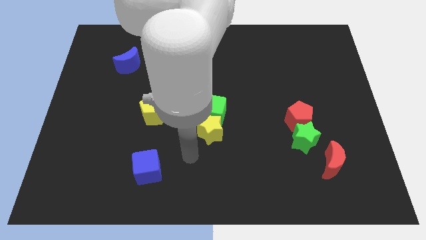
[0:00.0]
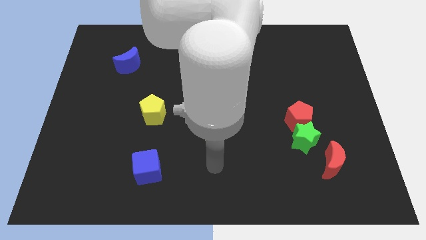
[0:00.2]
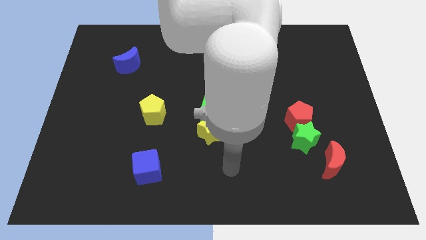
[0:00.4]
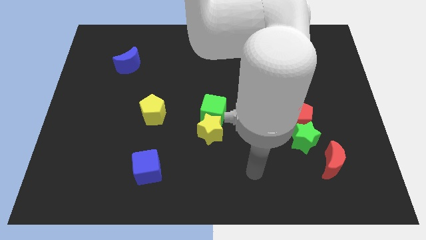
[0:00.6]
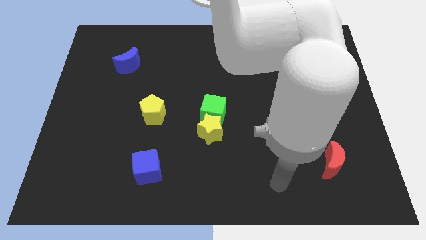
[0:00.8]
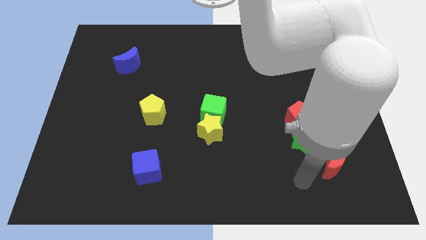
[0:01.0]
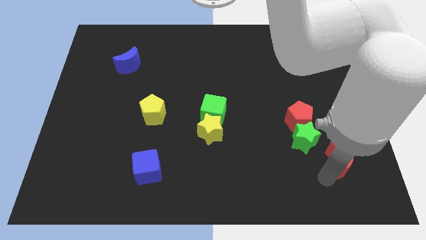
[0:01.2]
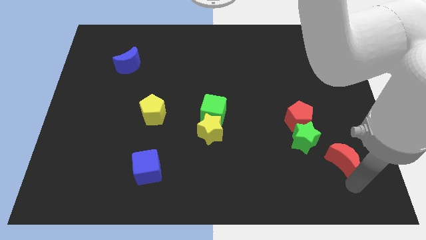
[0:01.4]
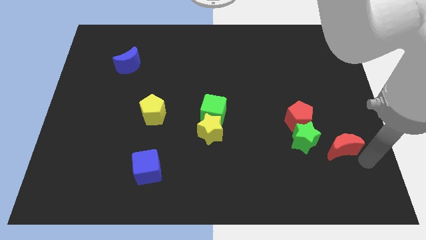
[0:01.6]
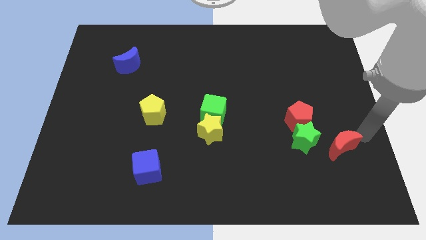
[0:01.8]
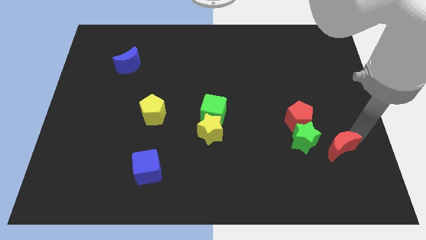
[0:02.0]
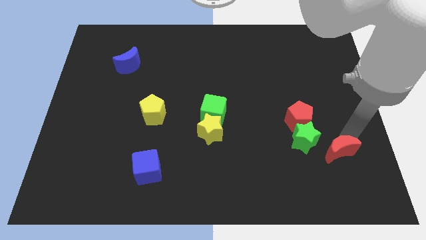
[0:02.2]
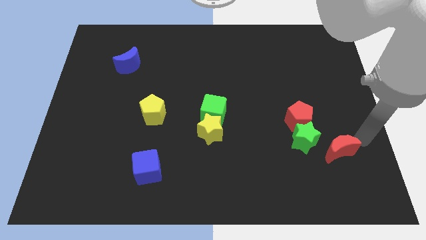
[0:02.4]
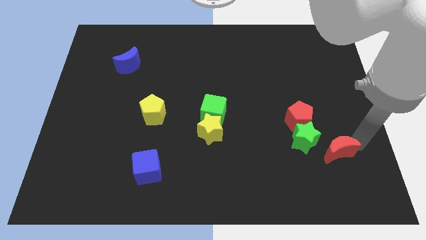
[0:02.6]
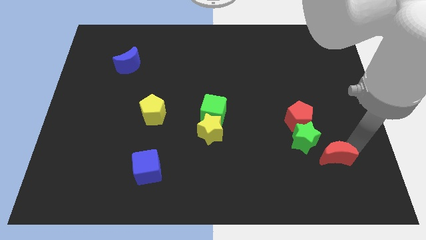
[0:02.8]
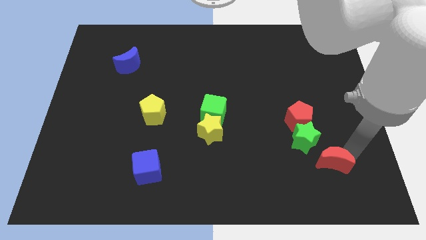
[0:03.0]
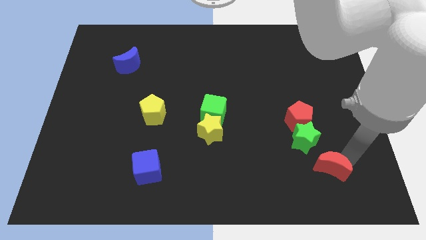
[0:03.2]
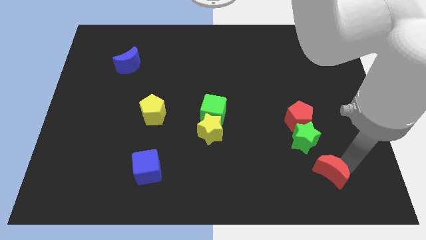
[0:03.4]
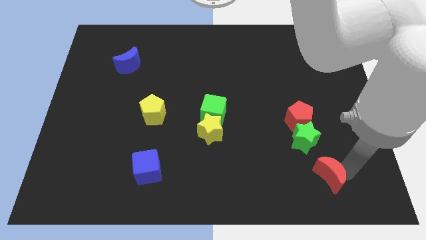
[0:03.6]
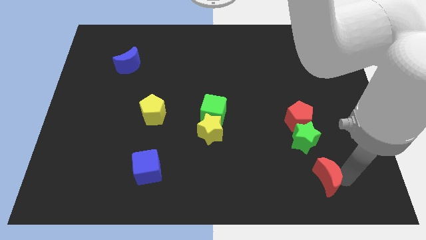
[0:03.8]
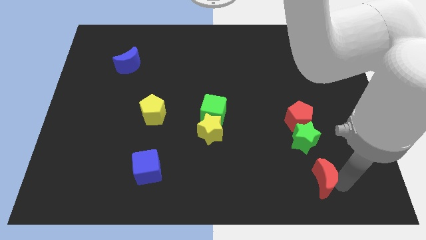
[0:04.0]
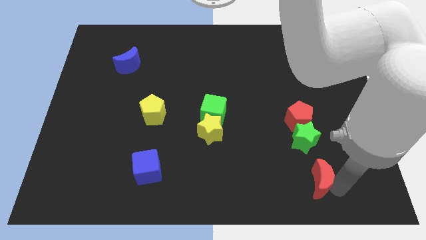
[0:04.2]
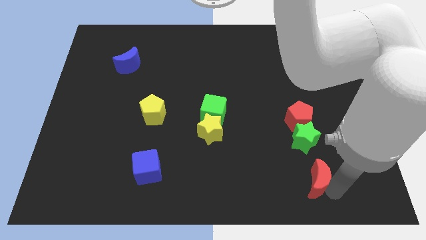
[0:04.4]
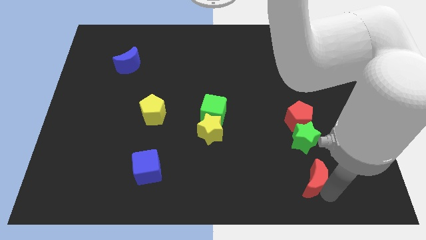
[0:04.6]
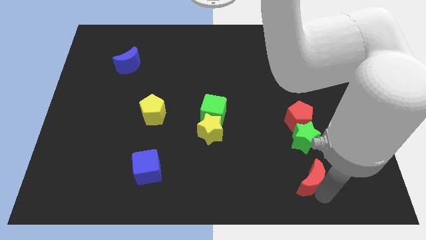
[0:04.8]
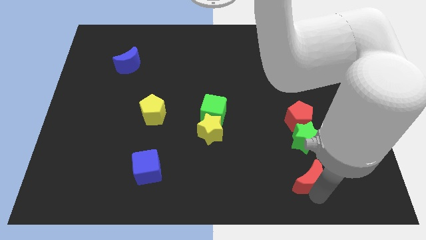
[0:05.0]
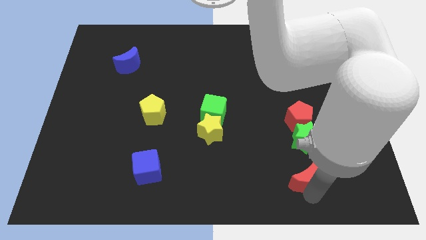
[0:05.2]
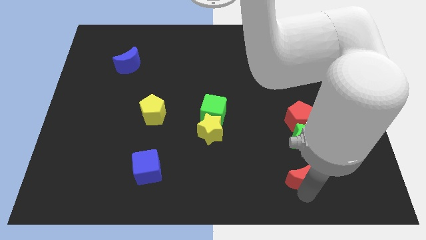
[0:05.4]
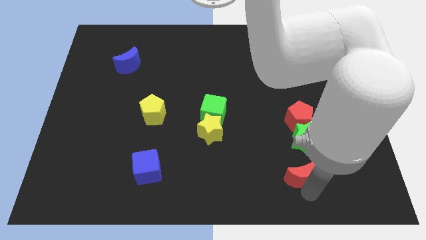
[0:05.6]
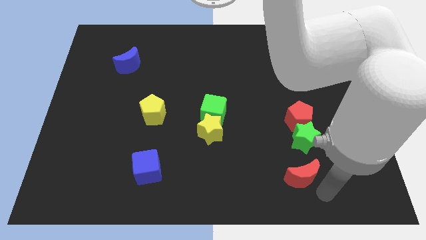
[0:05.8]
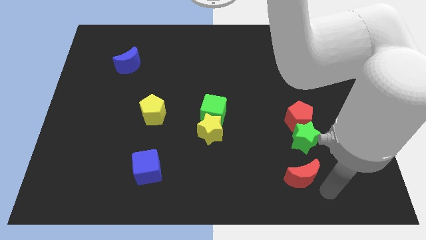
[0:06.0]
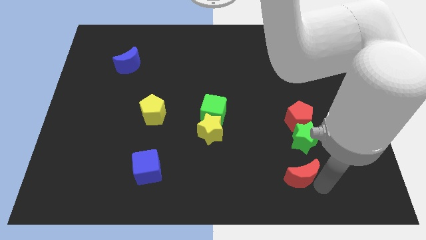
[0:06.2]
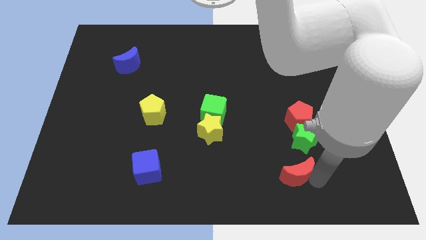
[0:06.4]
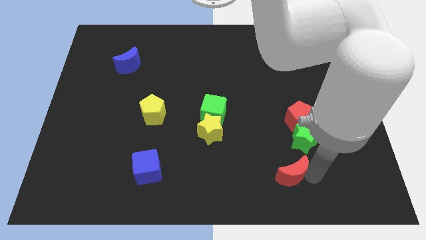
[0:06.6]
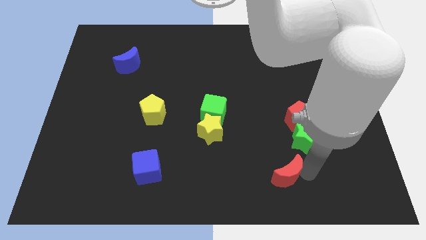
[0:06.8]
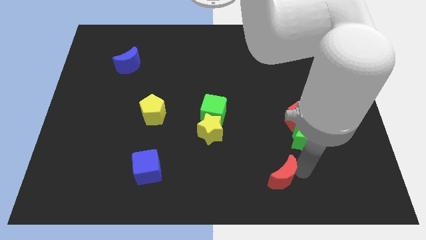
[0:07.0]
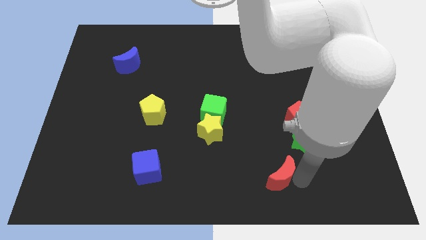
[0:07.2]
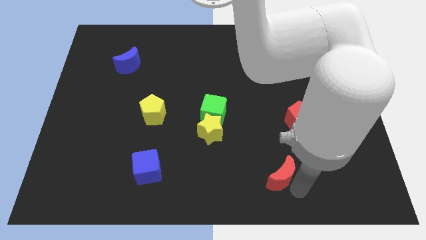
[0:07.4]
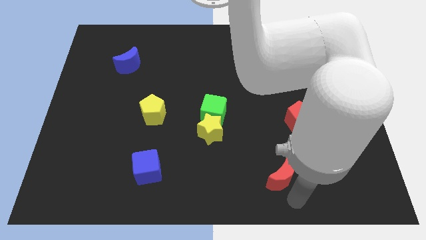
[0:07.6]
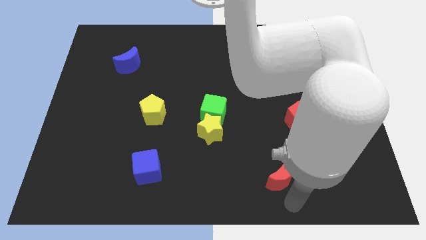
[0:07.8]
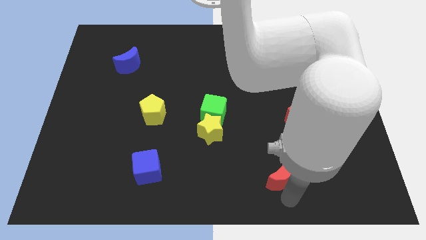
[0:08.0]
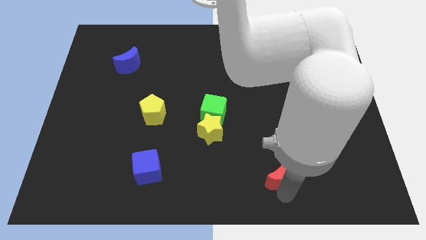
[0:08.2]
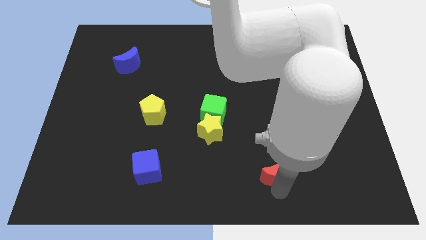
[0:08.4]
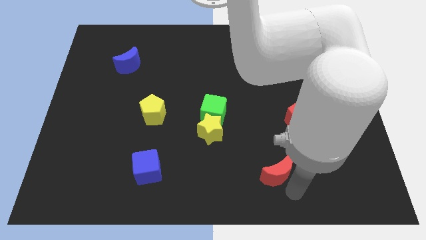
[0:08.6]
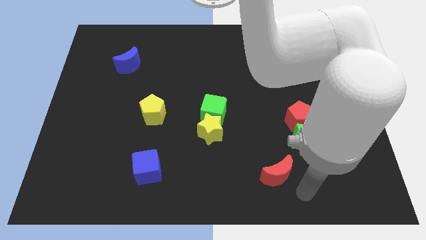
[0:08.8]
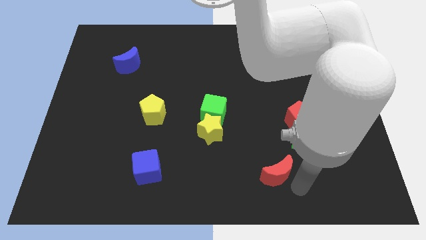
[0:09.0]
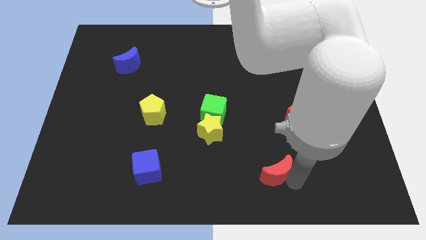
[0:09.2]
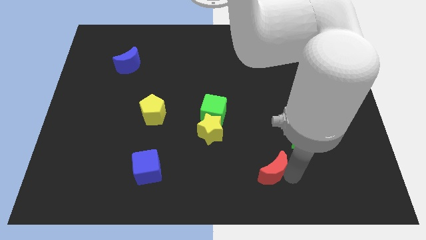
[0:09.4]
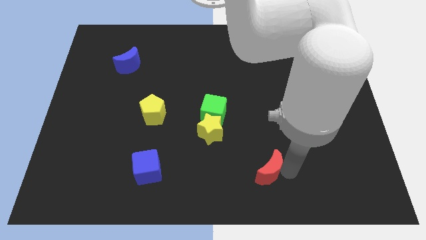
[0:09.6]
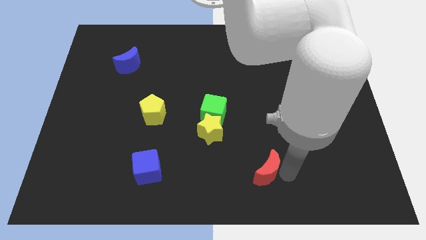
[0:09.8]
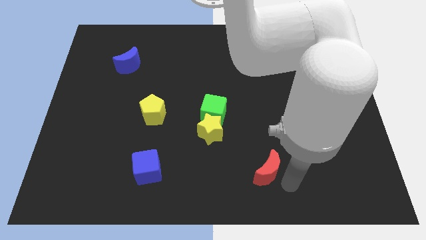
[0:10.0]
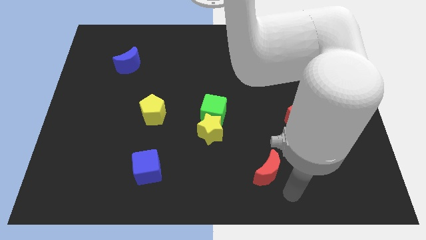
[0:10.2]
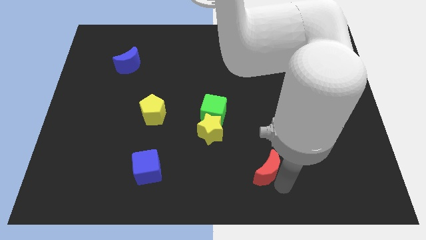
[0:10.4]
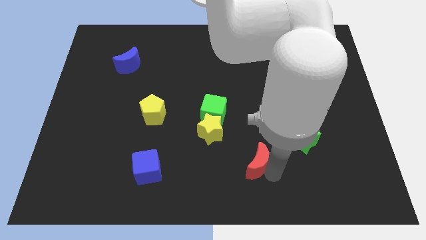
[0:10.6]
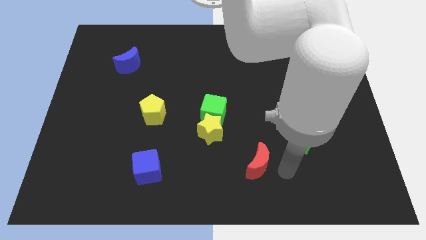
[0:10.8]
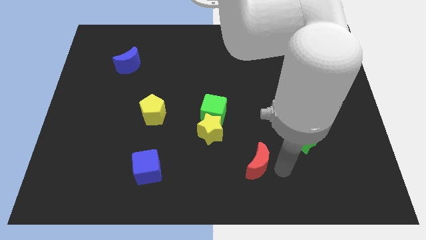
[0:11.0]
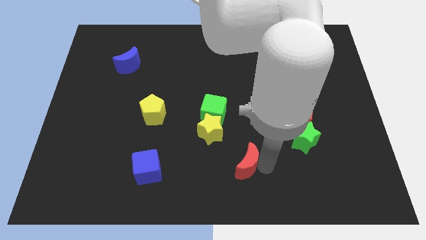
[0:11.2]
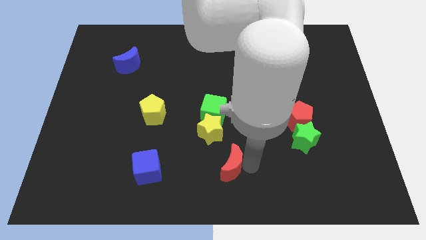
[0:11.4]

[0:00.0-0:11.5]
move the red moon left

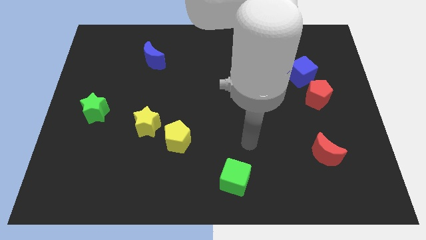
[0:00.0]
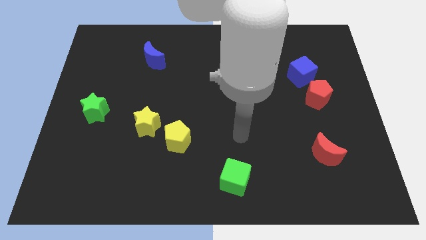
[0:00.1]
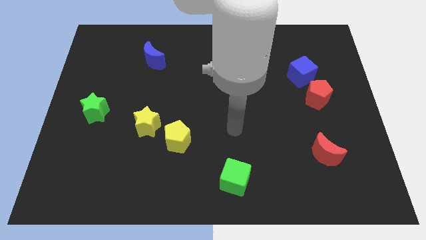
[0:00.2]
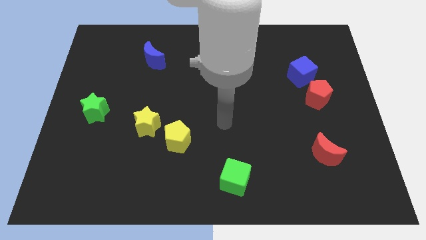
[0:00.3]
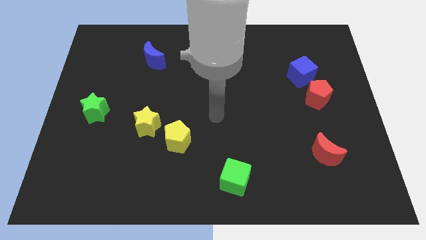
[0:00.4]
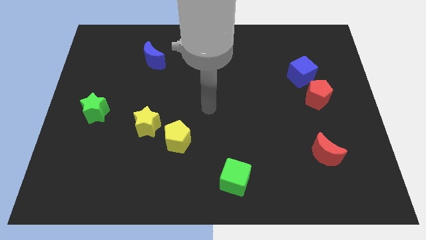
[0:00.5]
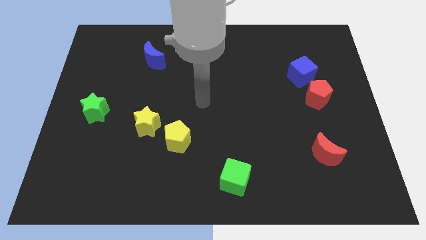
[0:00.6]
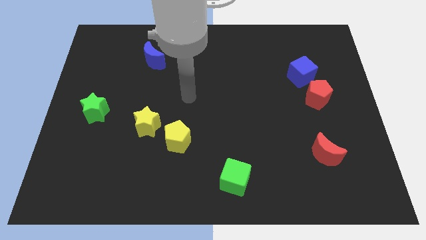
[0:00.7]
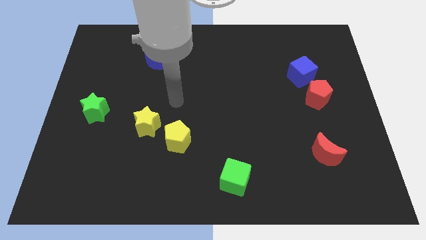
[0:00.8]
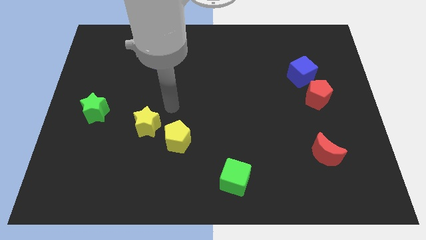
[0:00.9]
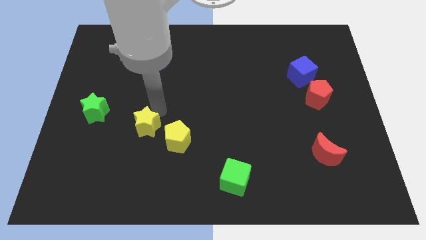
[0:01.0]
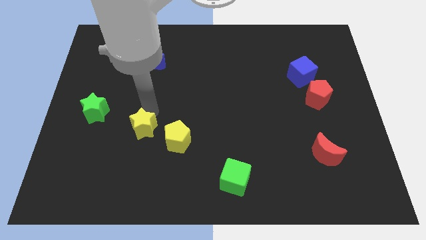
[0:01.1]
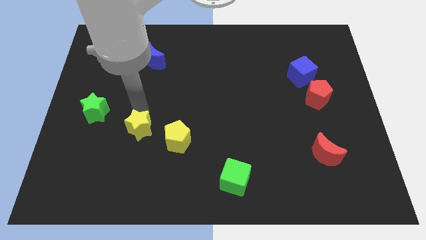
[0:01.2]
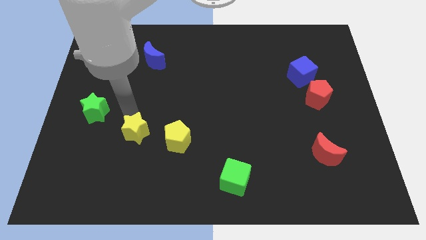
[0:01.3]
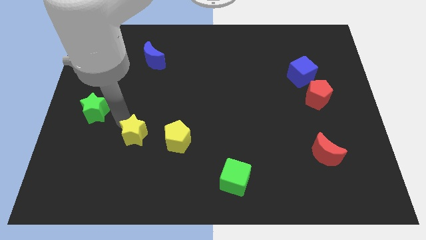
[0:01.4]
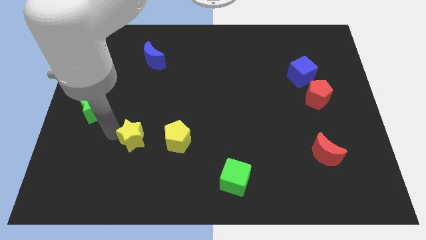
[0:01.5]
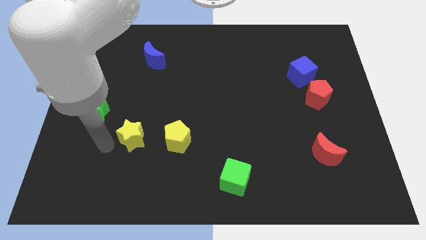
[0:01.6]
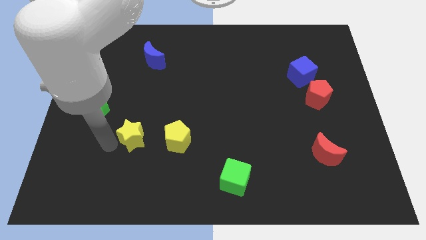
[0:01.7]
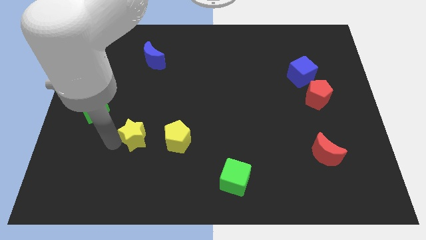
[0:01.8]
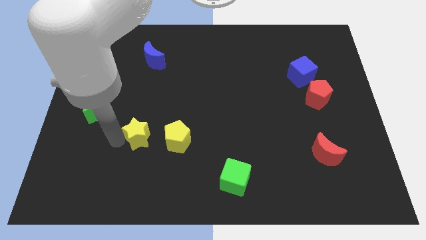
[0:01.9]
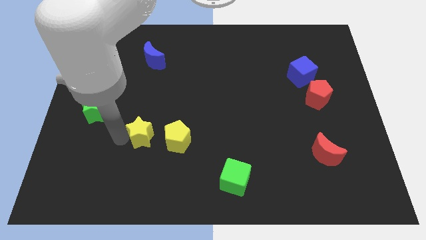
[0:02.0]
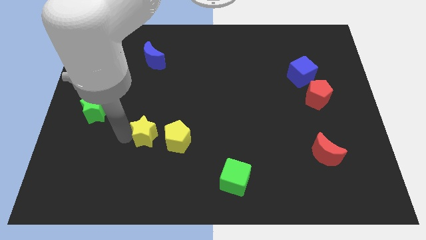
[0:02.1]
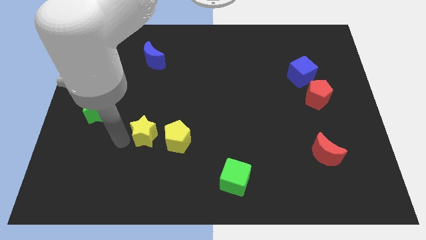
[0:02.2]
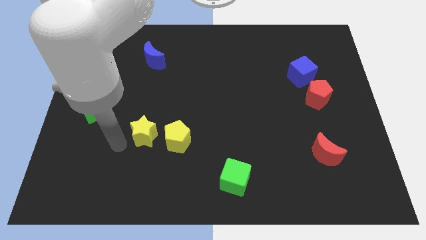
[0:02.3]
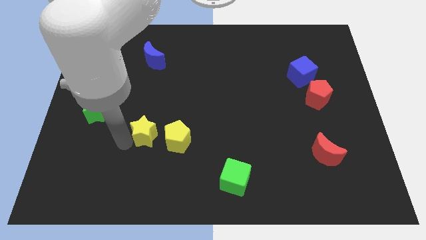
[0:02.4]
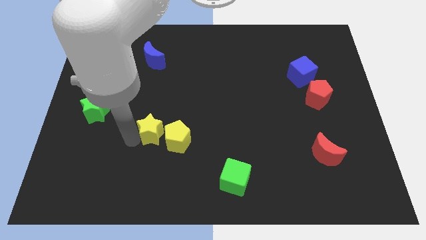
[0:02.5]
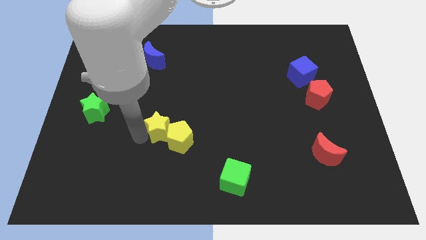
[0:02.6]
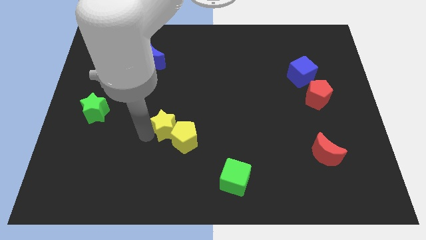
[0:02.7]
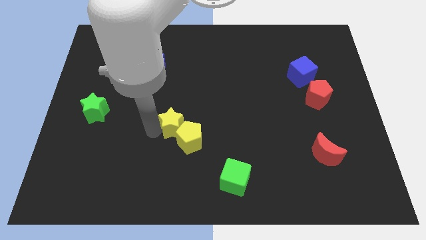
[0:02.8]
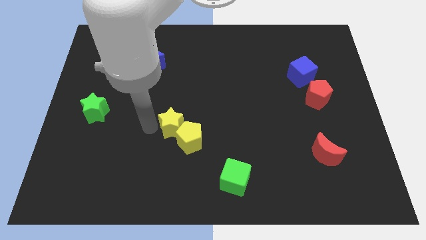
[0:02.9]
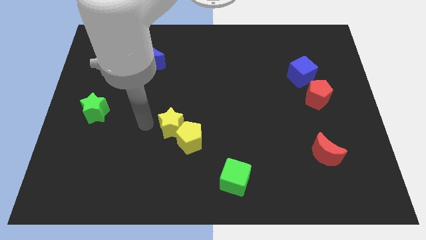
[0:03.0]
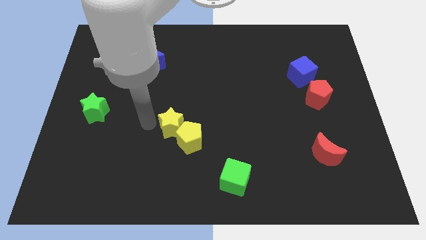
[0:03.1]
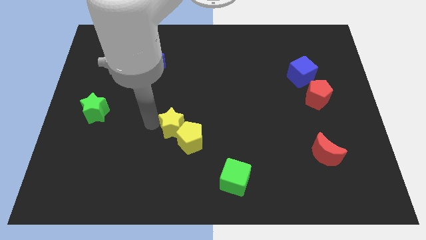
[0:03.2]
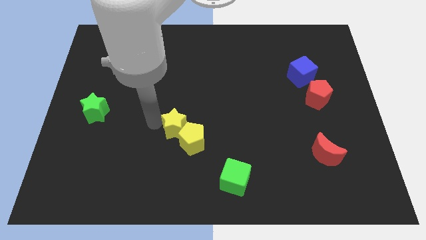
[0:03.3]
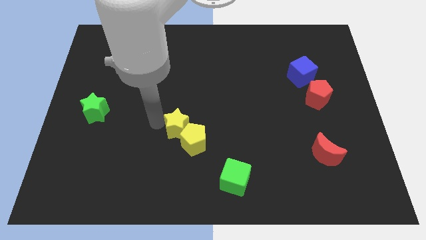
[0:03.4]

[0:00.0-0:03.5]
slightly push the yellow star to the right
